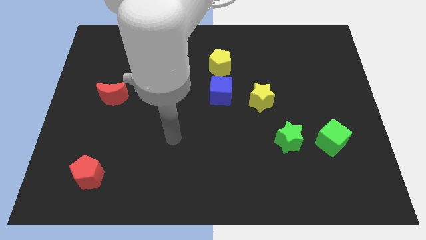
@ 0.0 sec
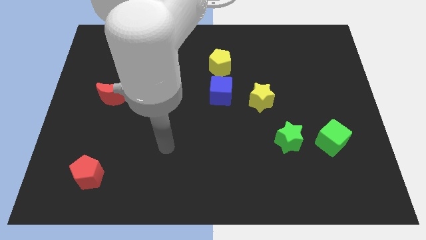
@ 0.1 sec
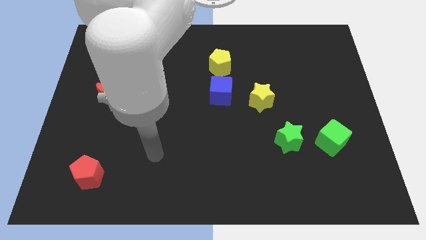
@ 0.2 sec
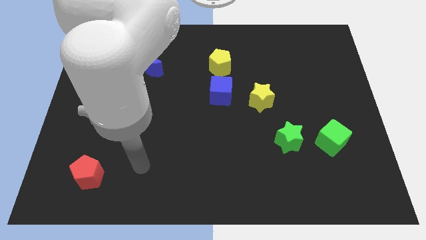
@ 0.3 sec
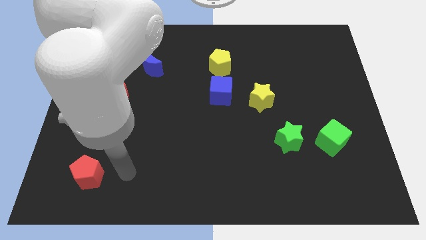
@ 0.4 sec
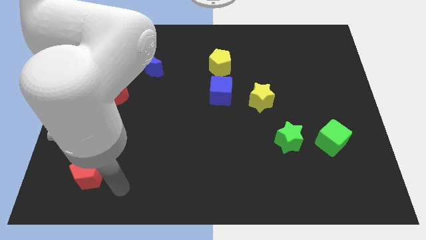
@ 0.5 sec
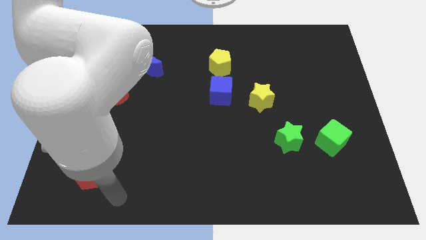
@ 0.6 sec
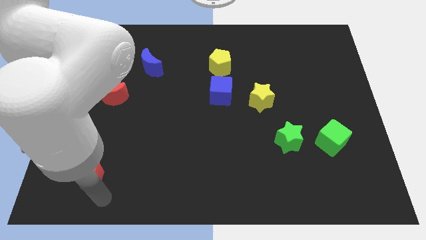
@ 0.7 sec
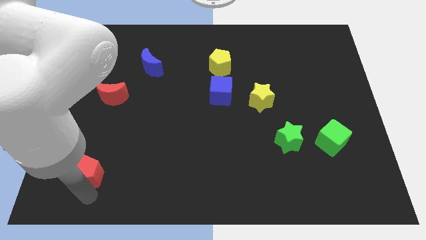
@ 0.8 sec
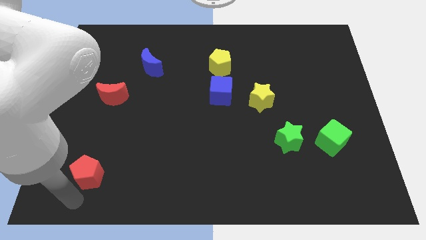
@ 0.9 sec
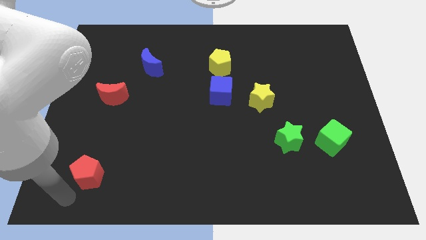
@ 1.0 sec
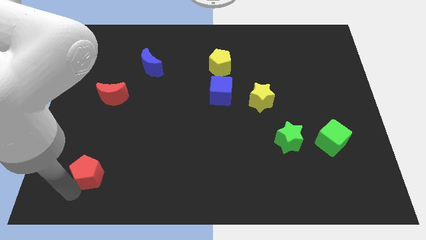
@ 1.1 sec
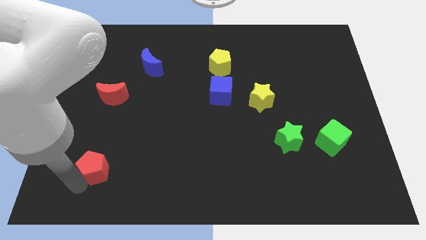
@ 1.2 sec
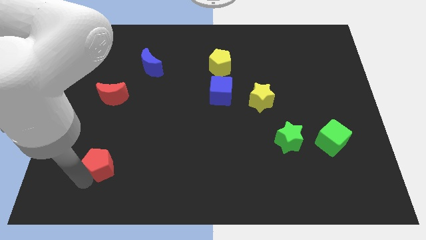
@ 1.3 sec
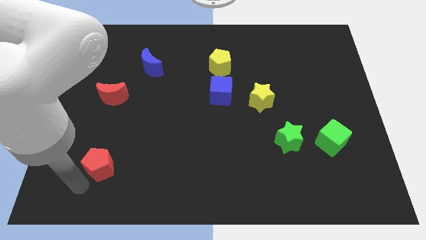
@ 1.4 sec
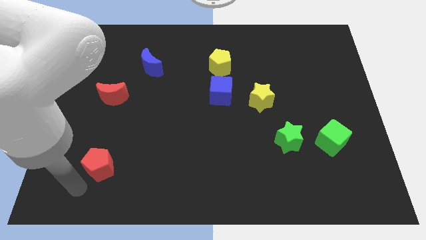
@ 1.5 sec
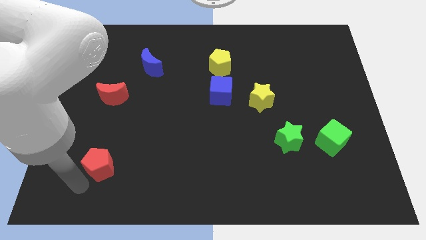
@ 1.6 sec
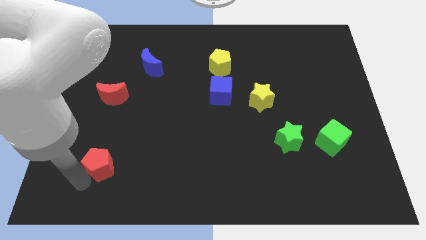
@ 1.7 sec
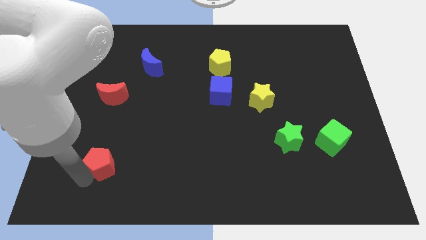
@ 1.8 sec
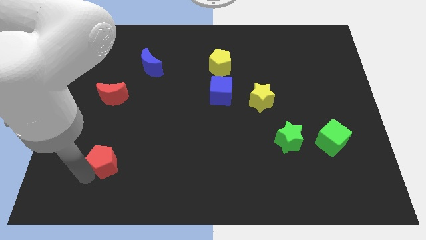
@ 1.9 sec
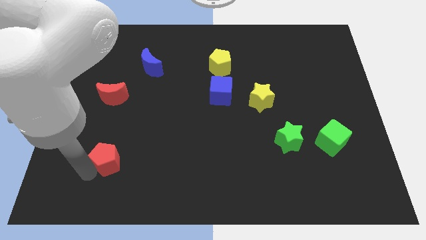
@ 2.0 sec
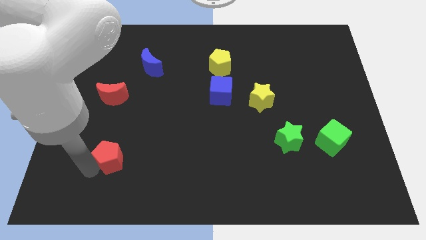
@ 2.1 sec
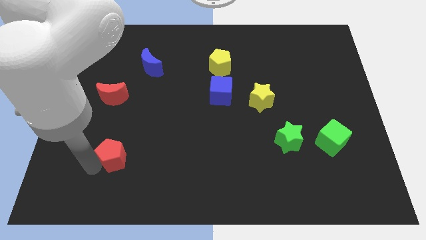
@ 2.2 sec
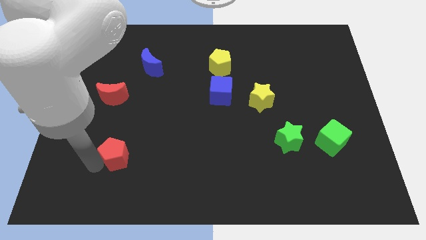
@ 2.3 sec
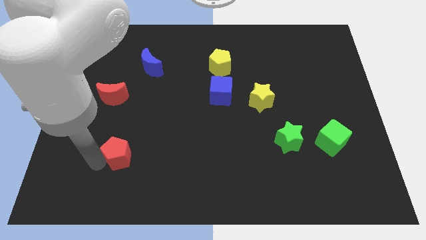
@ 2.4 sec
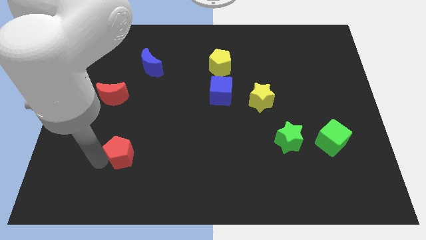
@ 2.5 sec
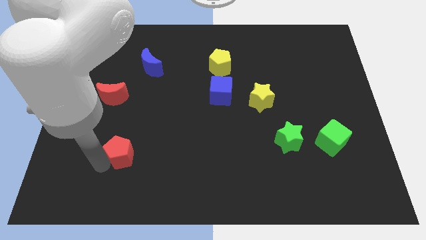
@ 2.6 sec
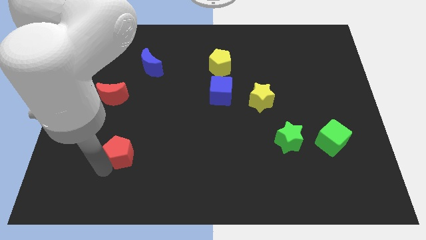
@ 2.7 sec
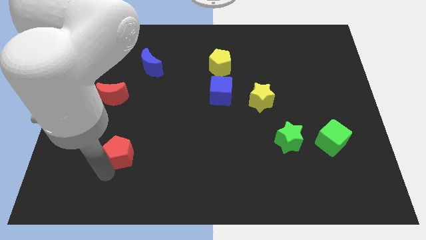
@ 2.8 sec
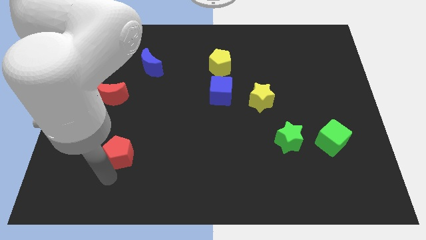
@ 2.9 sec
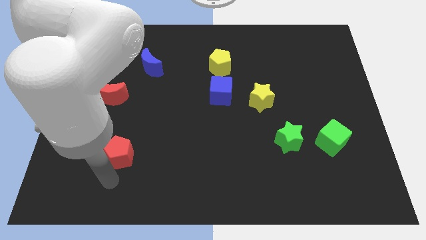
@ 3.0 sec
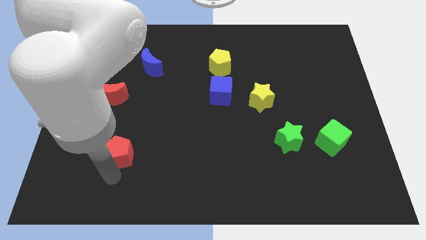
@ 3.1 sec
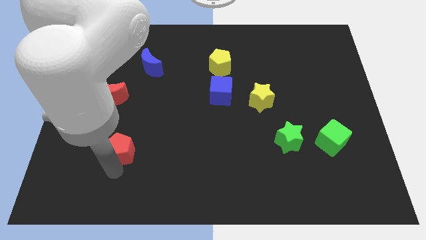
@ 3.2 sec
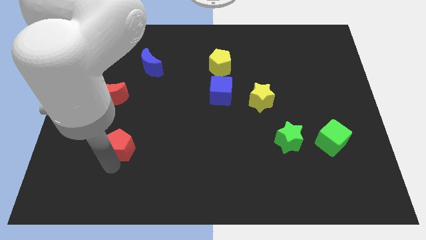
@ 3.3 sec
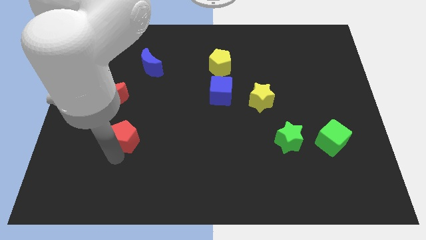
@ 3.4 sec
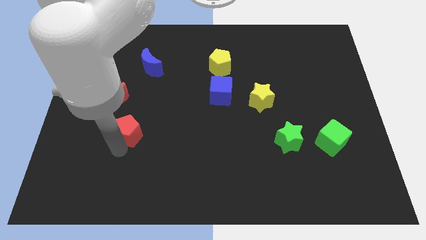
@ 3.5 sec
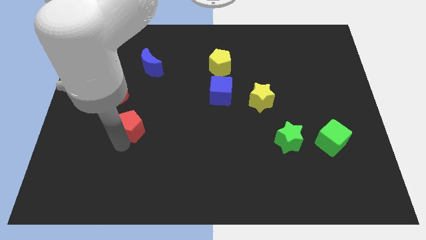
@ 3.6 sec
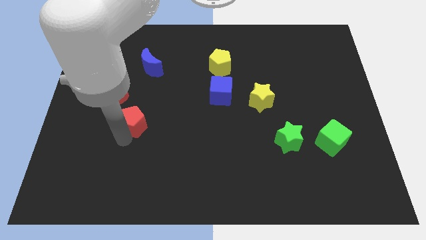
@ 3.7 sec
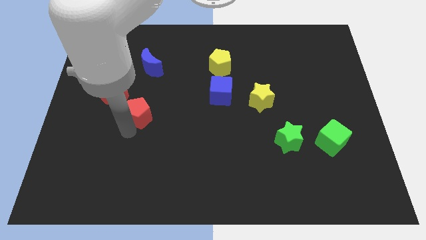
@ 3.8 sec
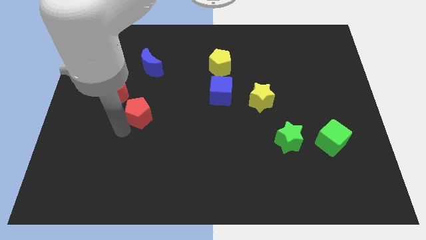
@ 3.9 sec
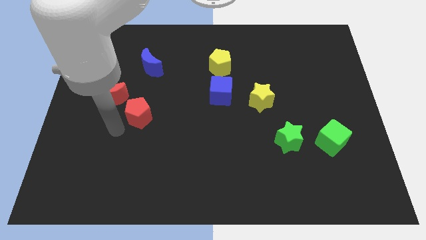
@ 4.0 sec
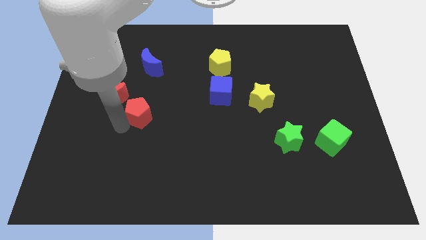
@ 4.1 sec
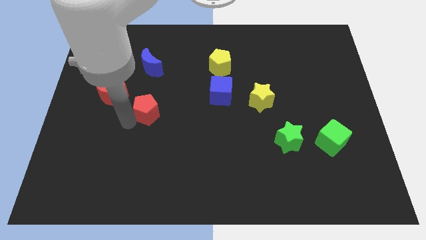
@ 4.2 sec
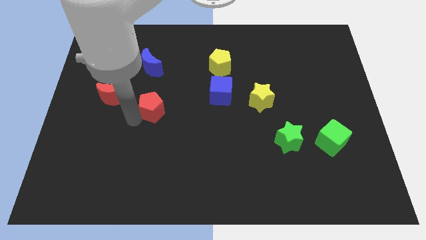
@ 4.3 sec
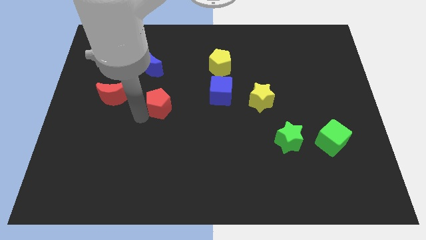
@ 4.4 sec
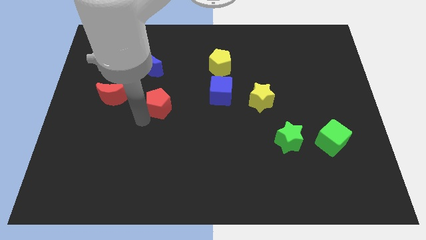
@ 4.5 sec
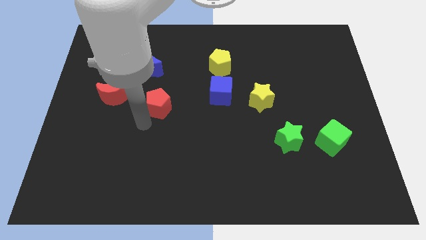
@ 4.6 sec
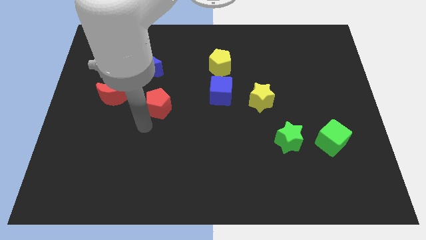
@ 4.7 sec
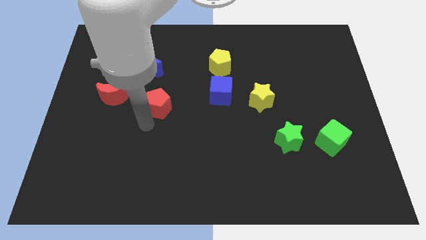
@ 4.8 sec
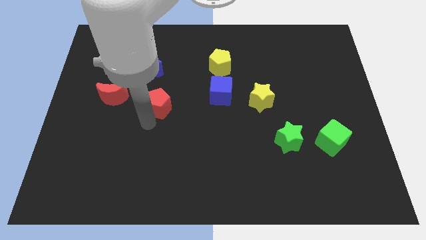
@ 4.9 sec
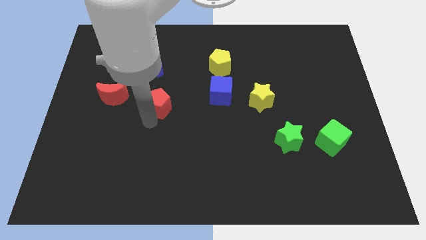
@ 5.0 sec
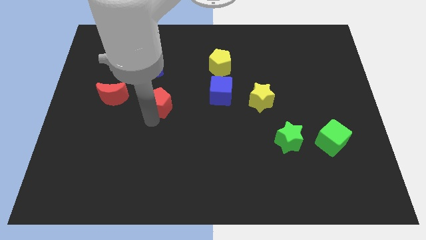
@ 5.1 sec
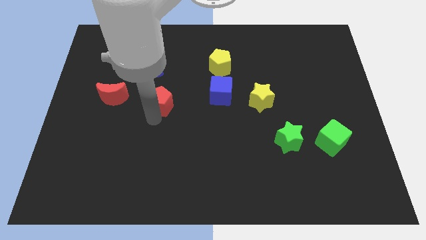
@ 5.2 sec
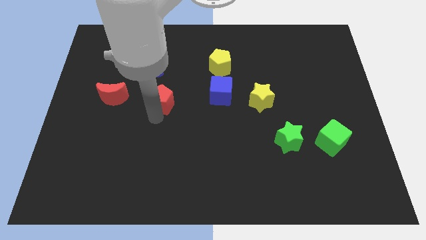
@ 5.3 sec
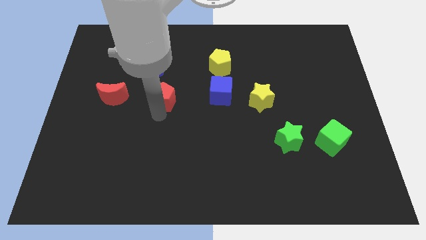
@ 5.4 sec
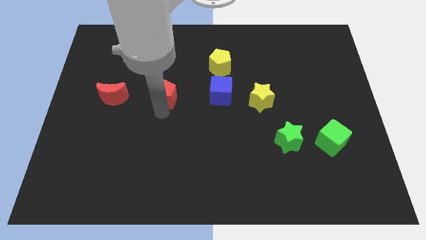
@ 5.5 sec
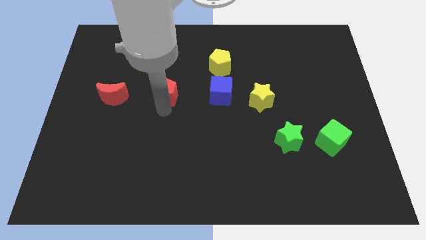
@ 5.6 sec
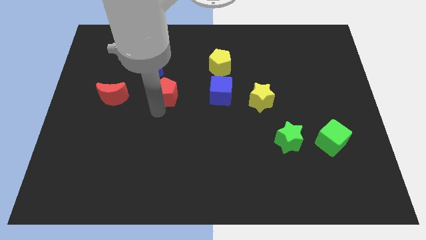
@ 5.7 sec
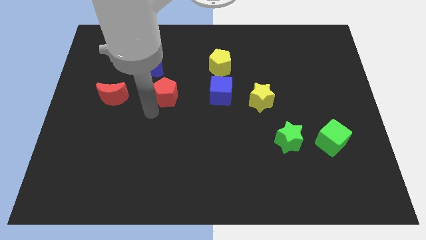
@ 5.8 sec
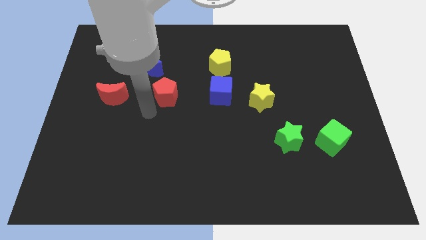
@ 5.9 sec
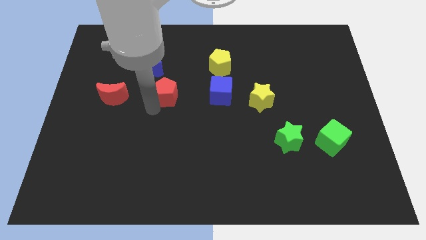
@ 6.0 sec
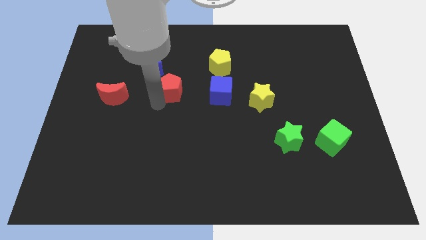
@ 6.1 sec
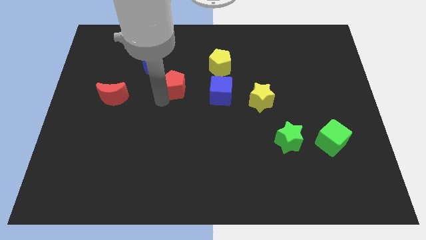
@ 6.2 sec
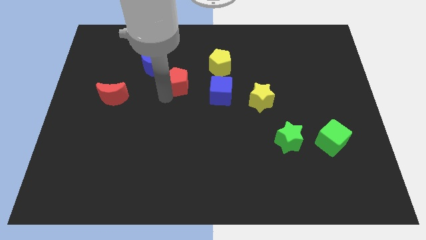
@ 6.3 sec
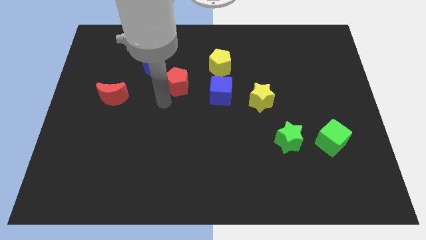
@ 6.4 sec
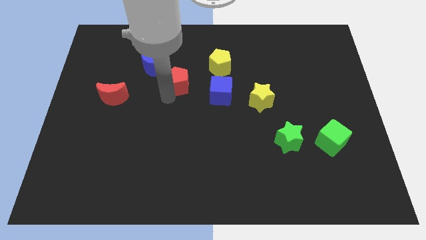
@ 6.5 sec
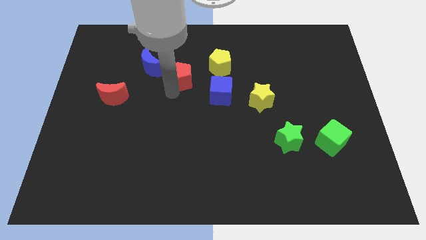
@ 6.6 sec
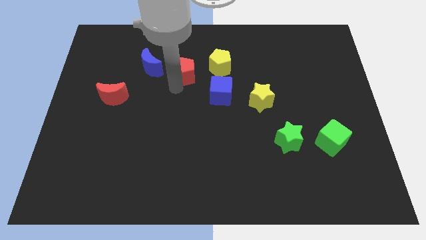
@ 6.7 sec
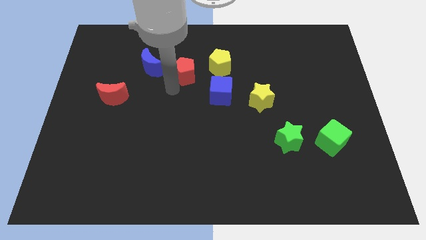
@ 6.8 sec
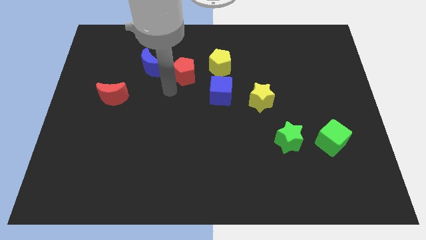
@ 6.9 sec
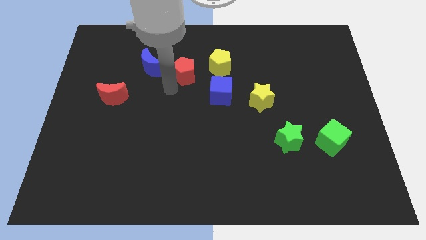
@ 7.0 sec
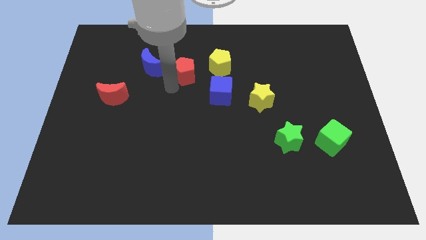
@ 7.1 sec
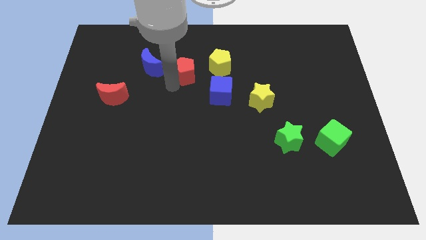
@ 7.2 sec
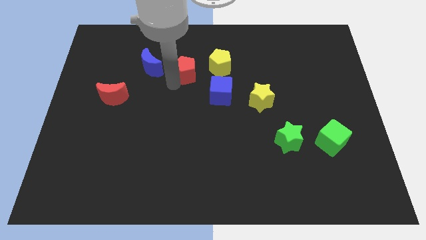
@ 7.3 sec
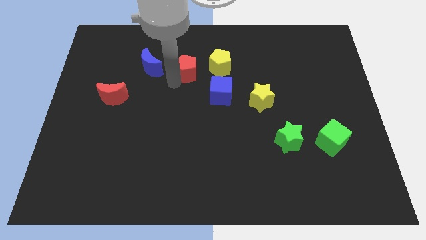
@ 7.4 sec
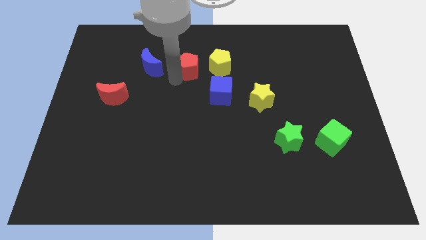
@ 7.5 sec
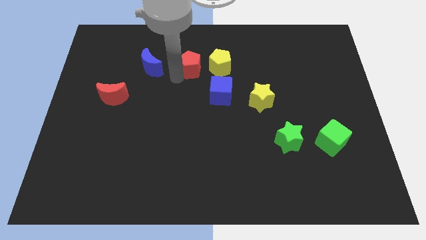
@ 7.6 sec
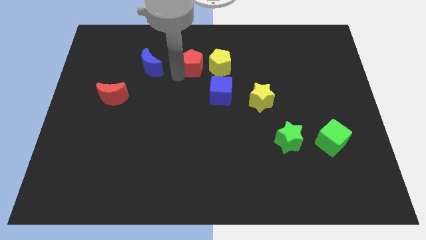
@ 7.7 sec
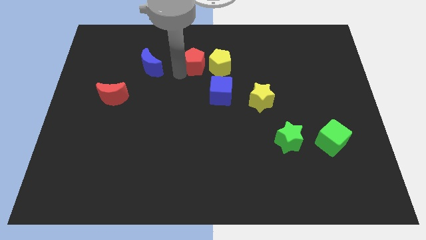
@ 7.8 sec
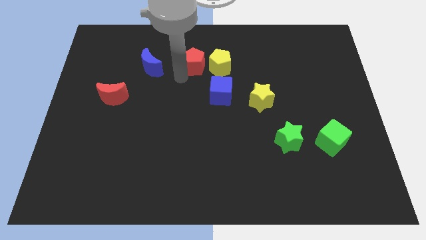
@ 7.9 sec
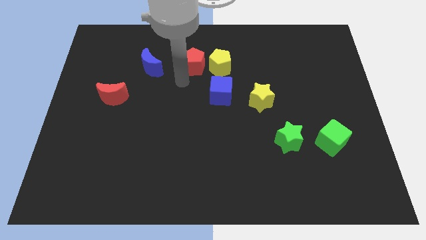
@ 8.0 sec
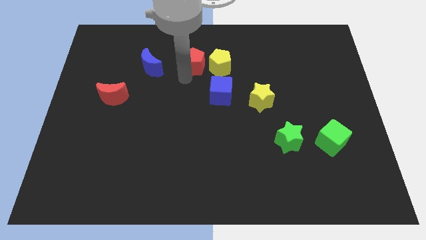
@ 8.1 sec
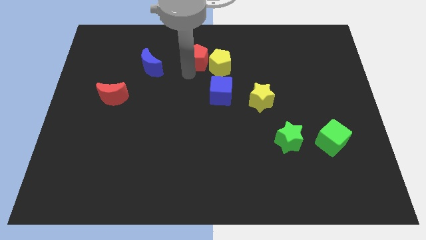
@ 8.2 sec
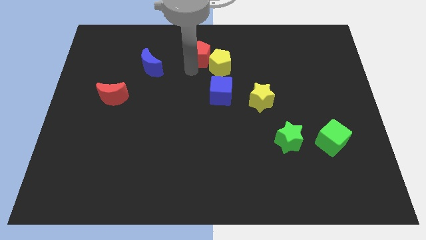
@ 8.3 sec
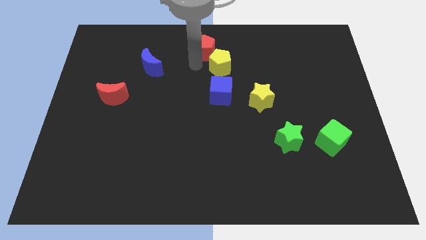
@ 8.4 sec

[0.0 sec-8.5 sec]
slide the red pentagon to the top
